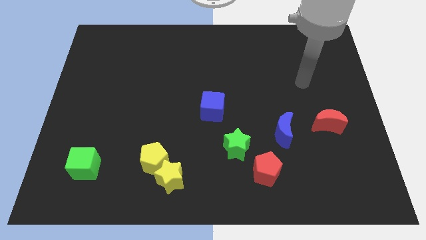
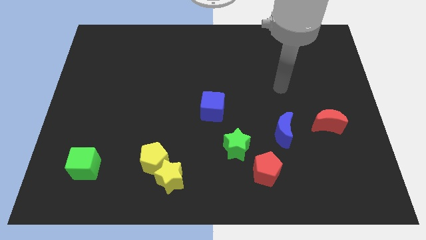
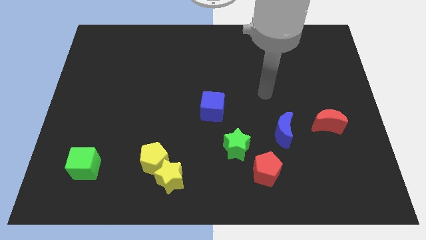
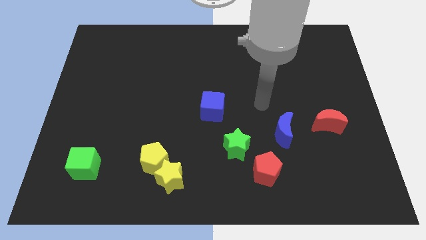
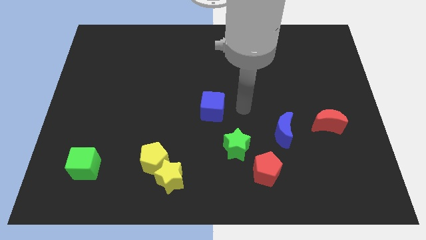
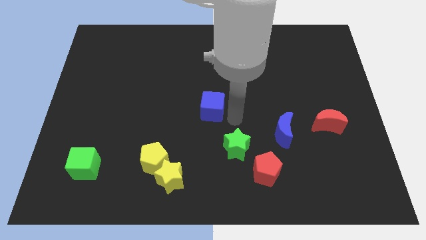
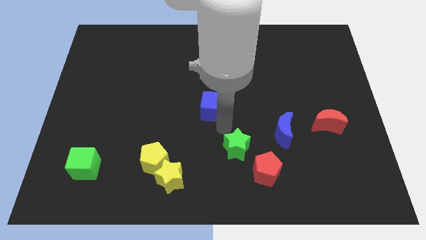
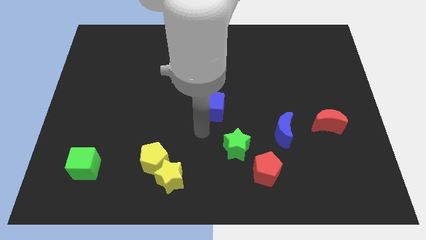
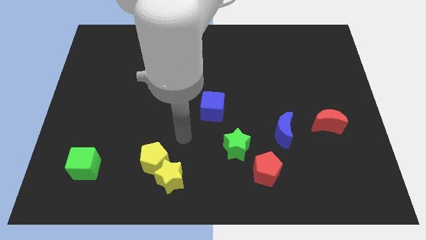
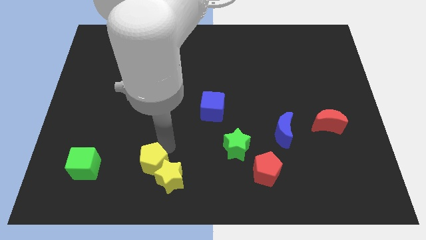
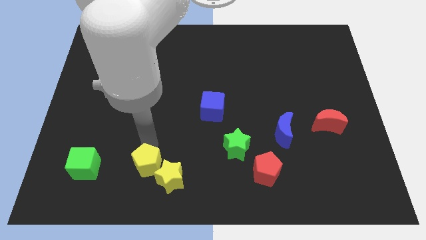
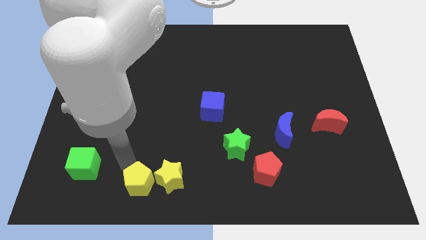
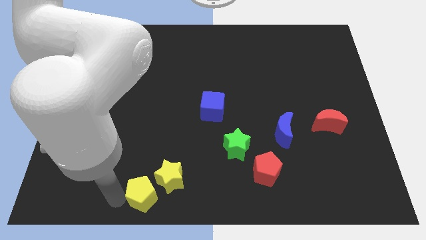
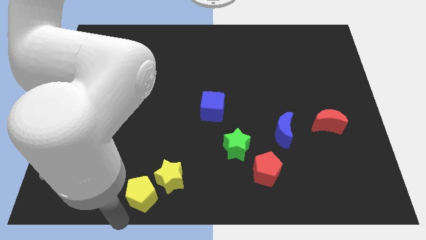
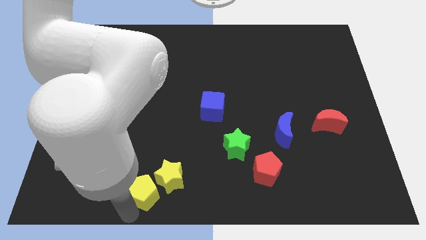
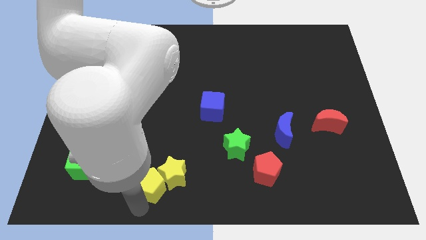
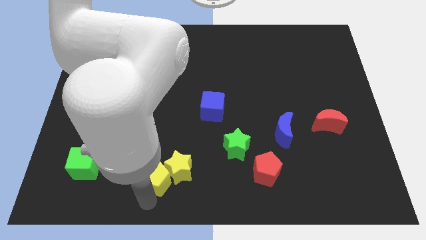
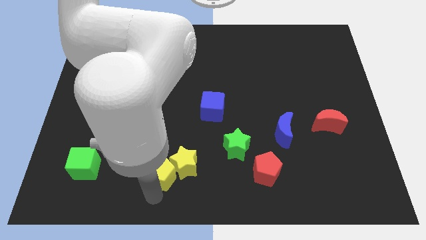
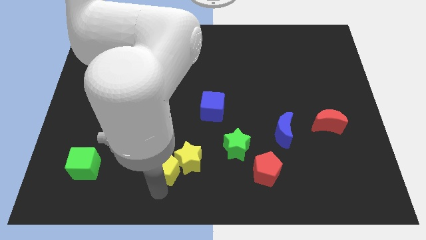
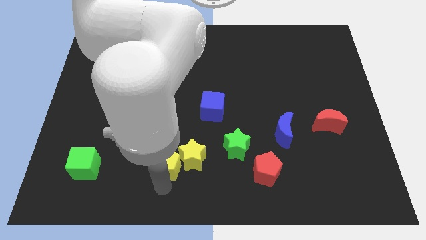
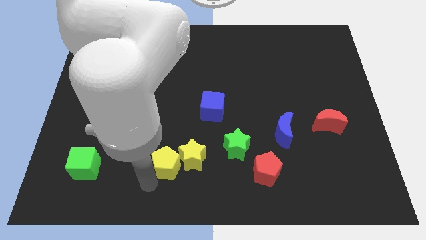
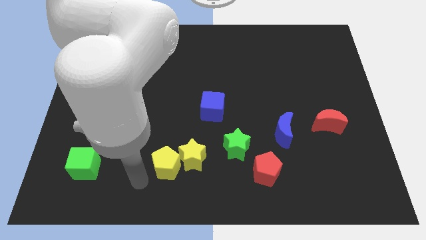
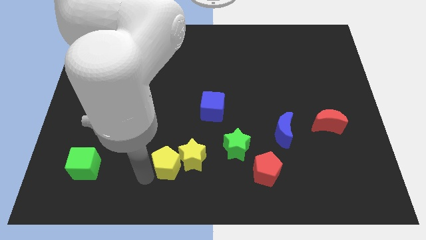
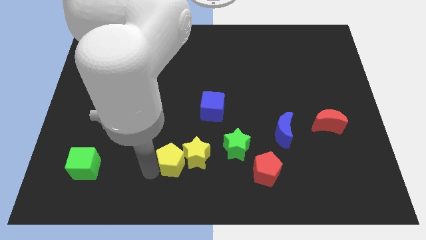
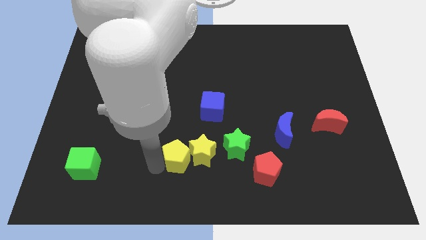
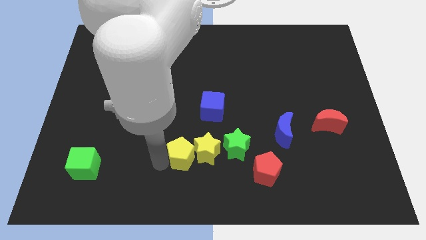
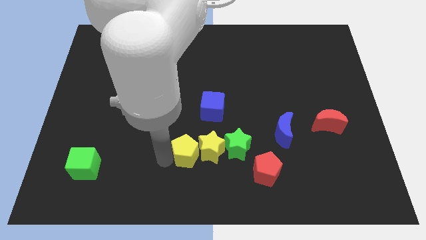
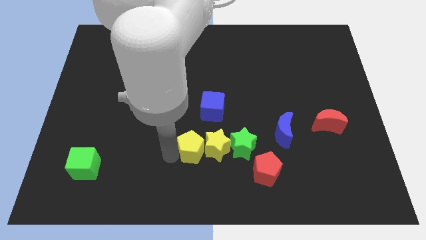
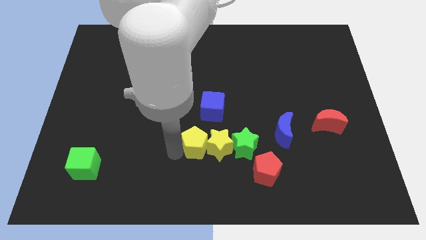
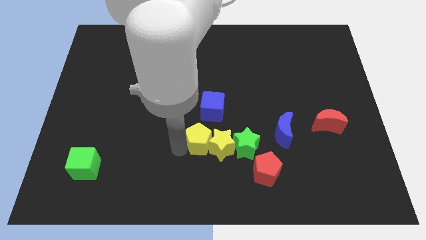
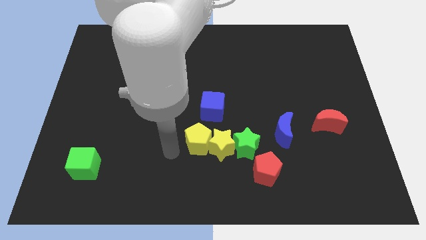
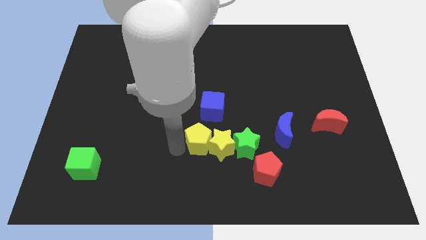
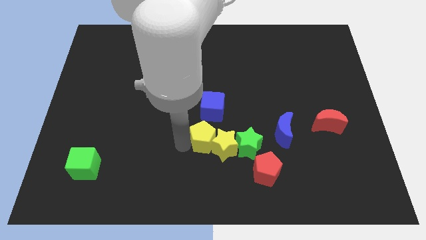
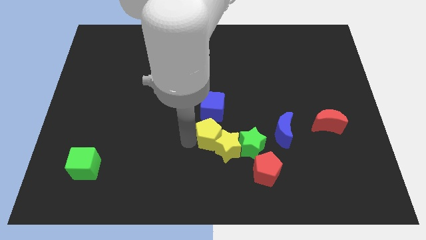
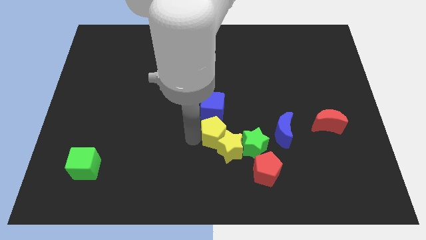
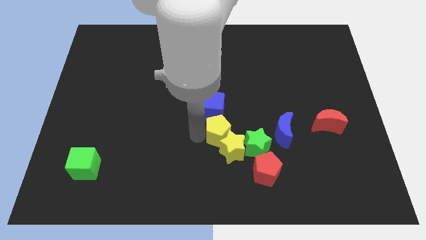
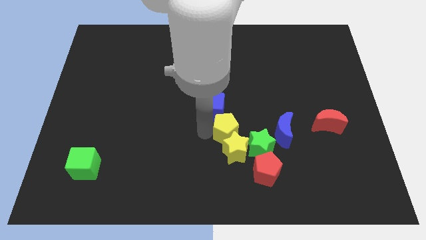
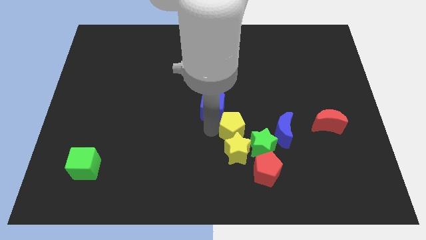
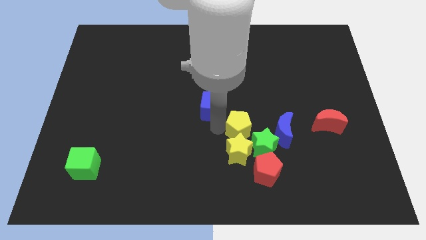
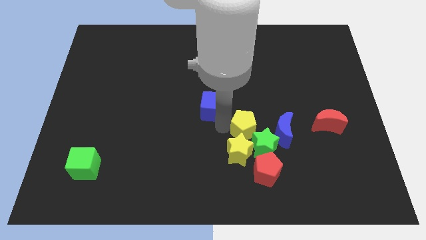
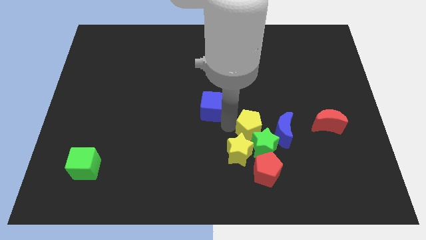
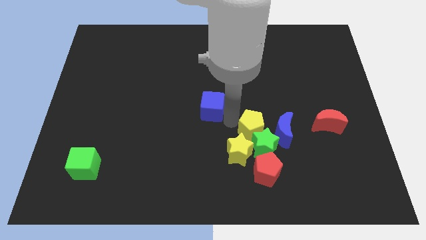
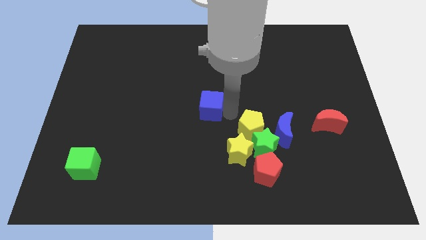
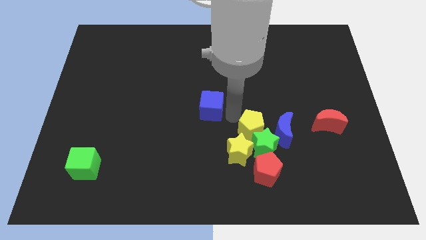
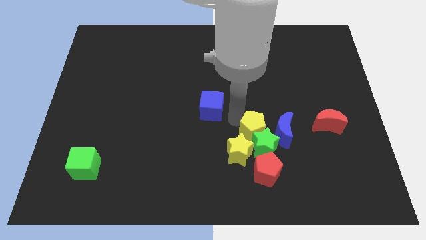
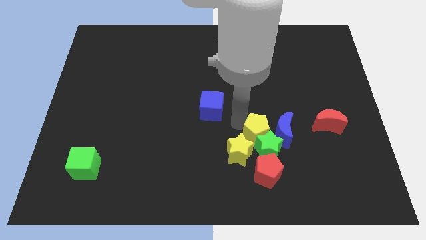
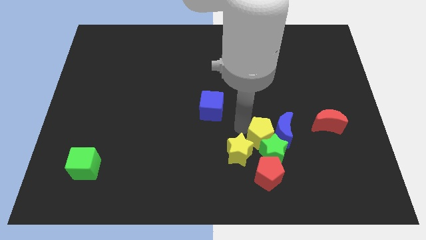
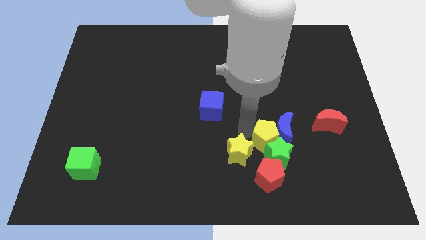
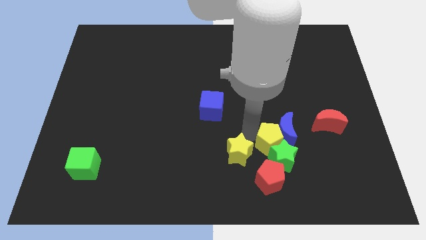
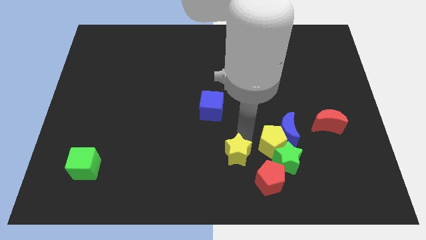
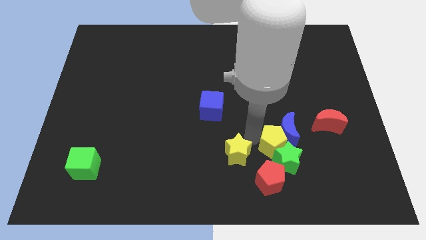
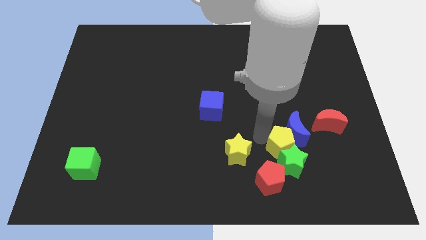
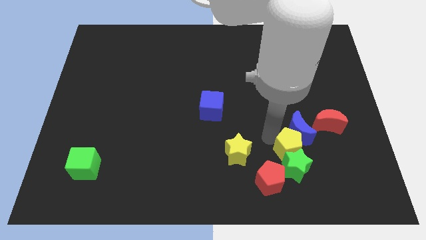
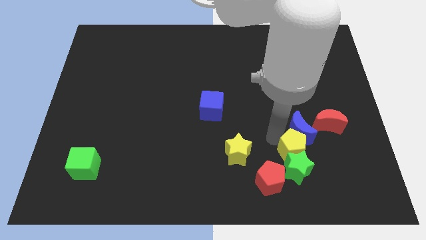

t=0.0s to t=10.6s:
push the yellow pentagon to the bottom right side of the blue moon

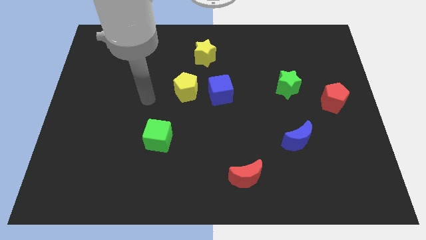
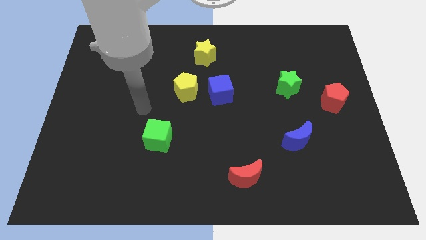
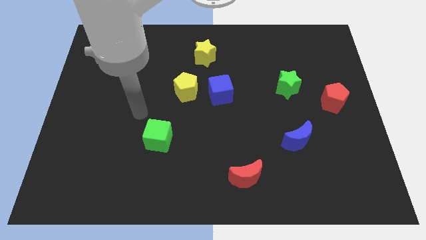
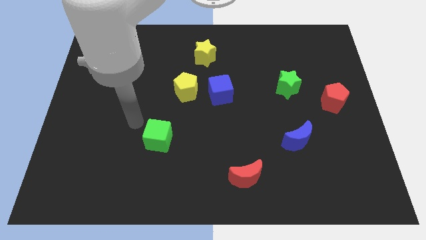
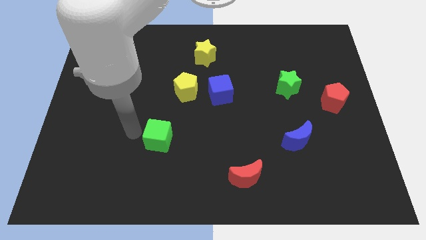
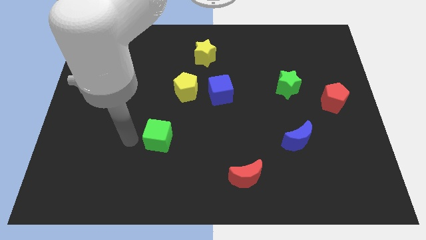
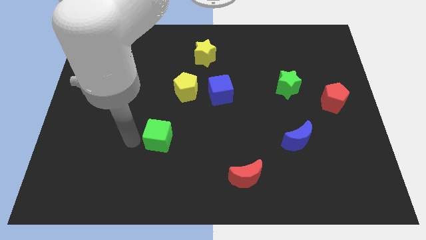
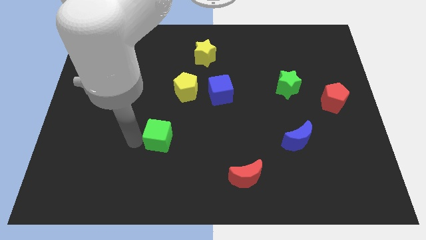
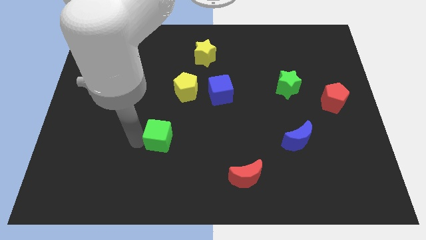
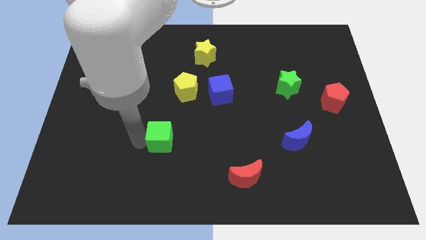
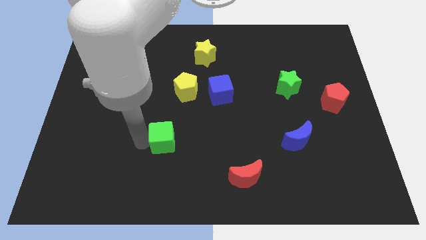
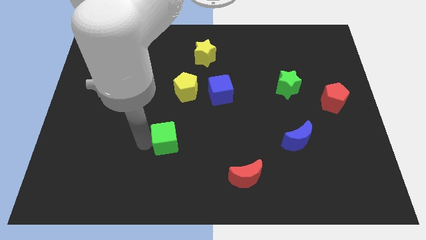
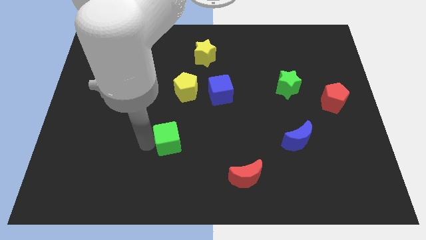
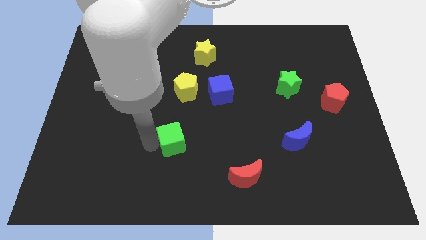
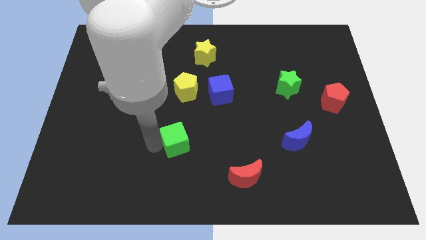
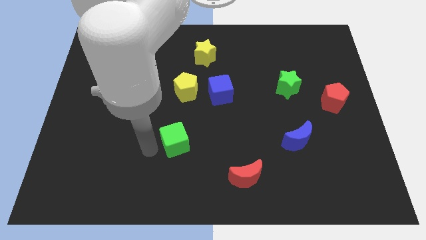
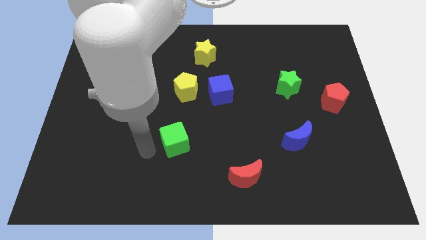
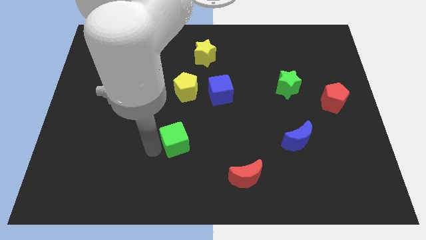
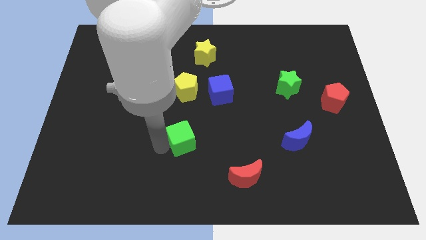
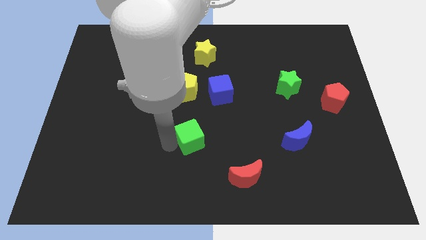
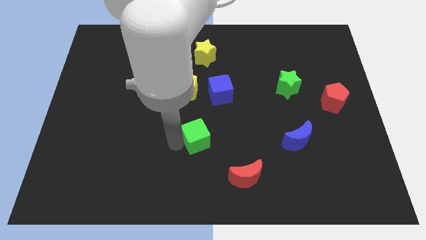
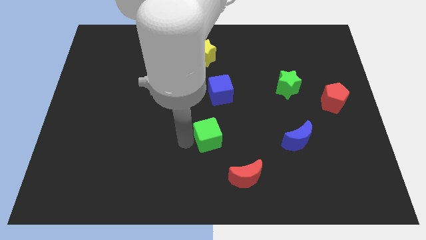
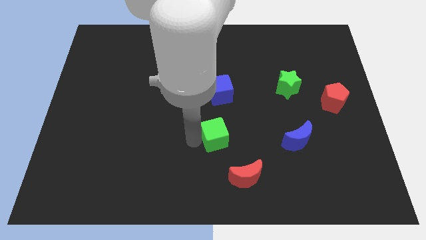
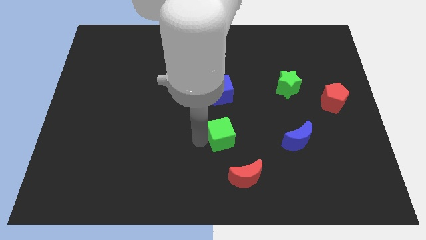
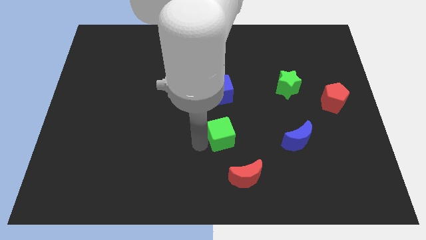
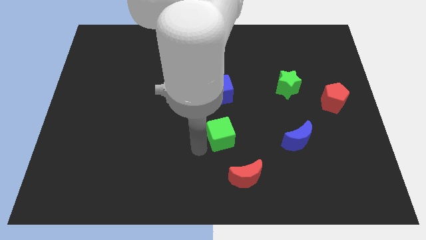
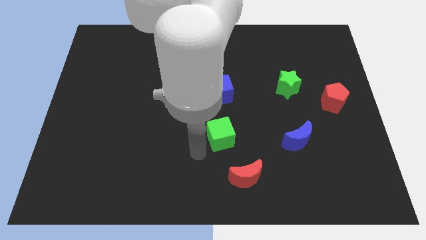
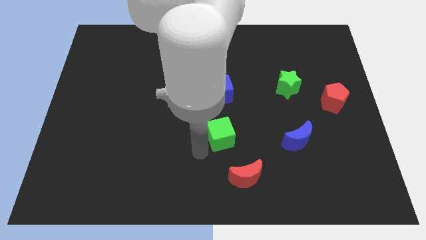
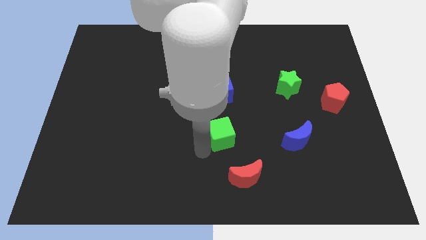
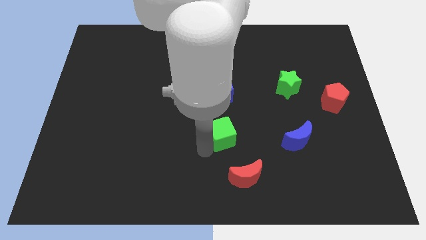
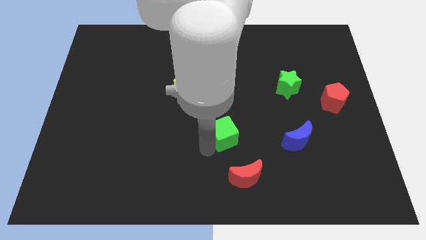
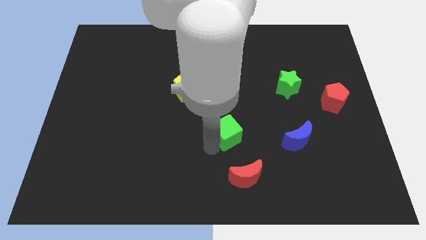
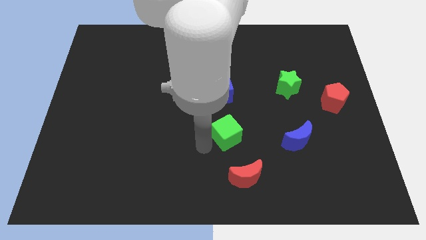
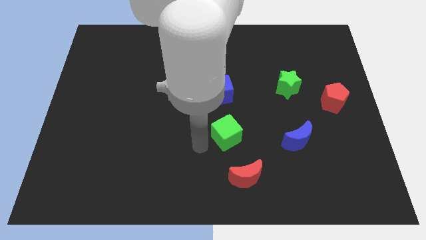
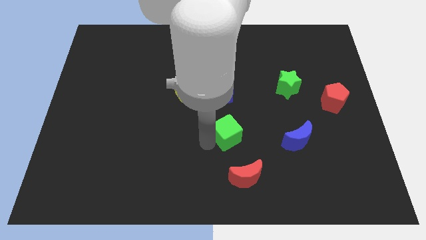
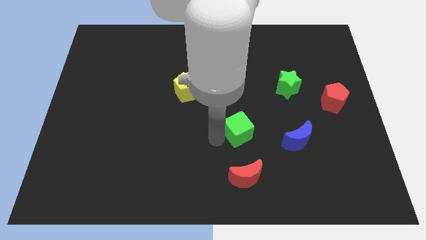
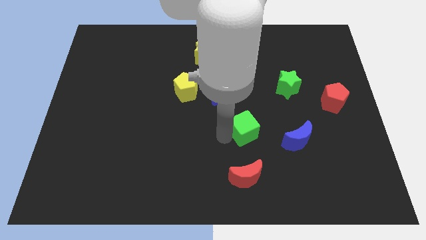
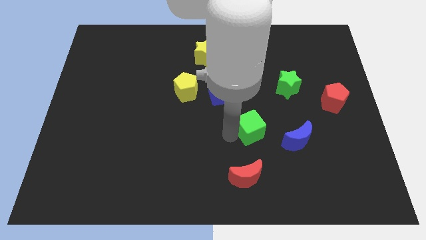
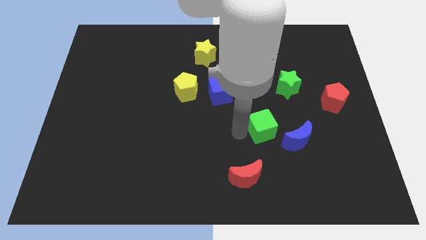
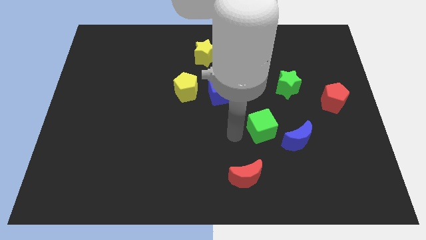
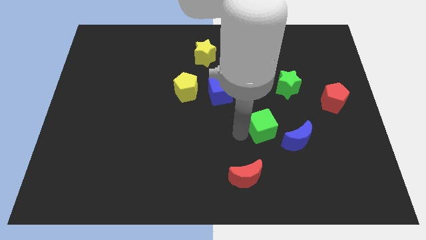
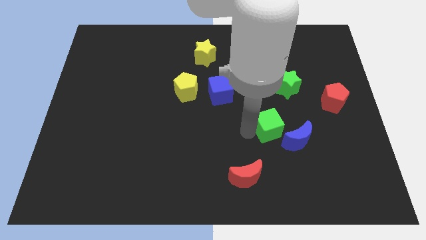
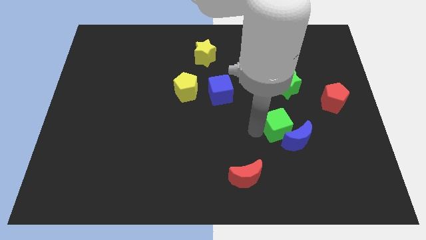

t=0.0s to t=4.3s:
move the green cube to the bottom side of the green star
